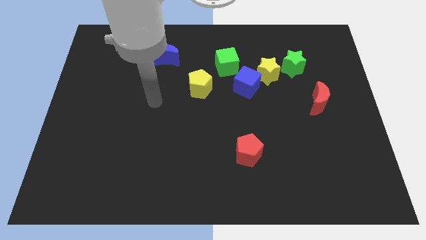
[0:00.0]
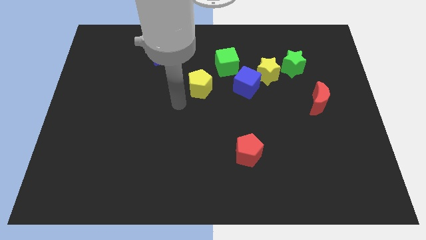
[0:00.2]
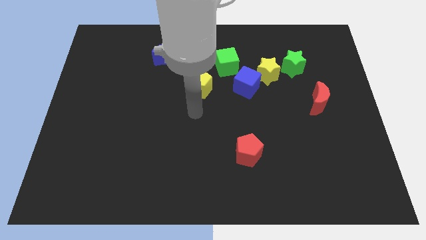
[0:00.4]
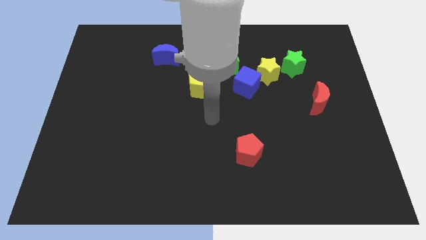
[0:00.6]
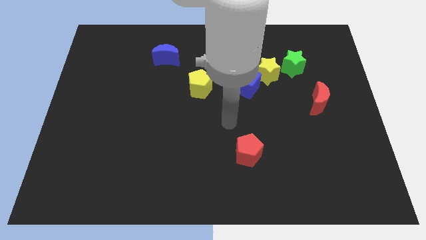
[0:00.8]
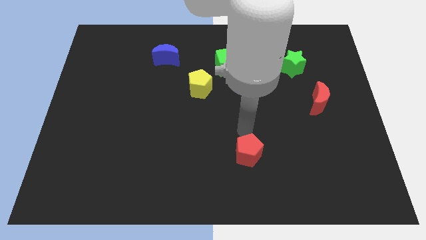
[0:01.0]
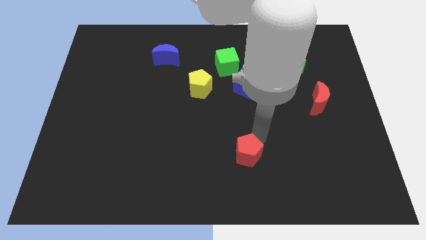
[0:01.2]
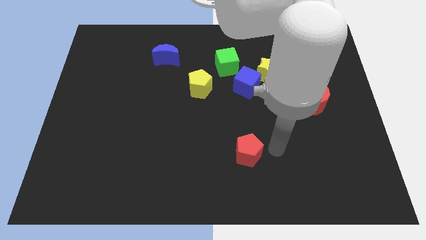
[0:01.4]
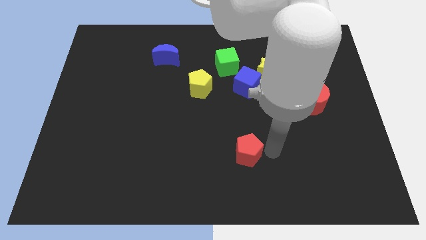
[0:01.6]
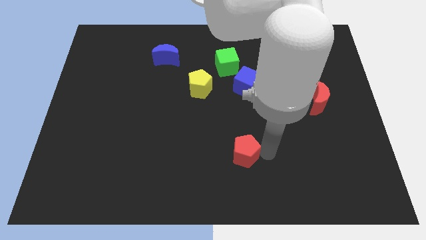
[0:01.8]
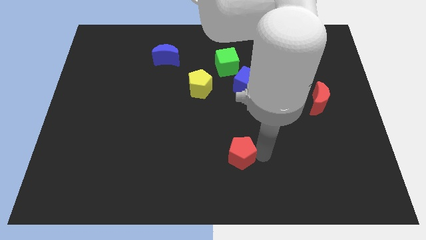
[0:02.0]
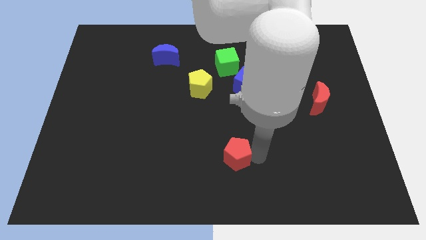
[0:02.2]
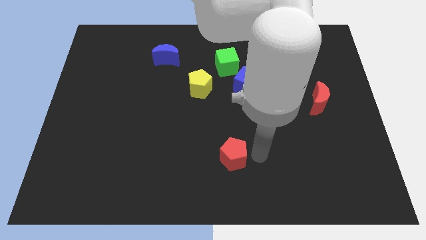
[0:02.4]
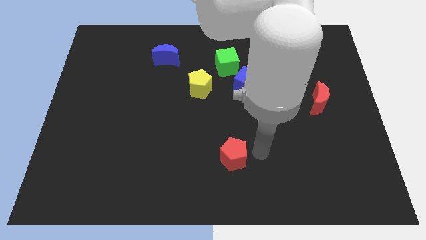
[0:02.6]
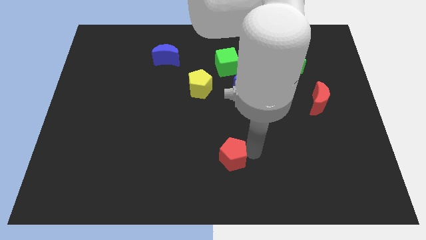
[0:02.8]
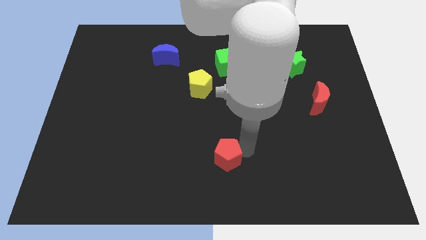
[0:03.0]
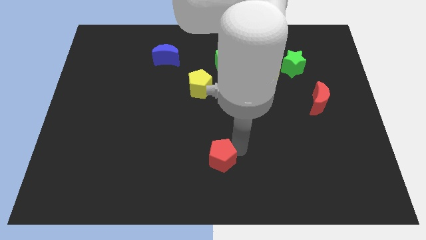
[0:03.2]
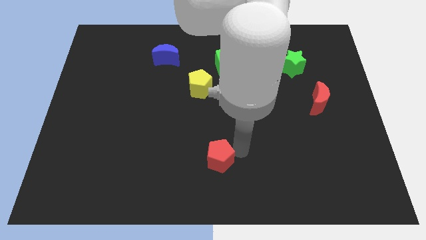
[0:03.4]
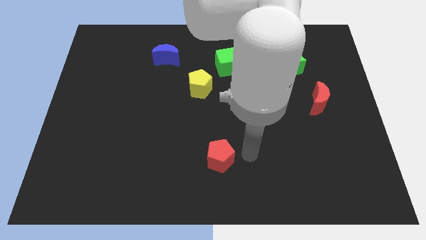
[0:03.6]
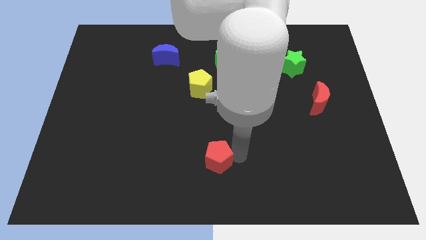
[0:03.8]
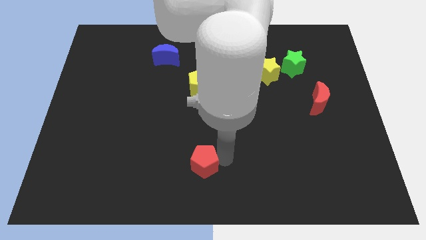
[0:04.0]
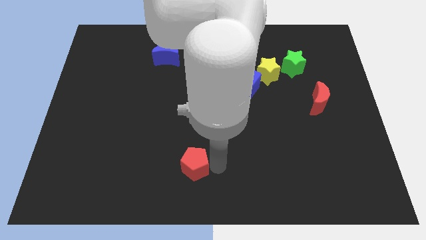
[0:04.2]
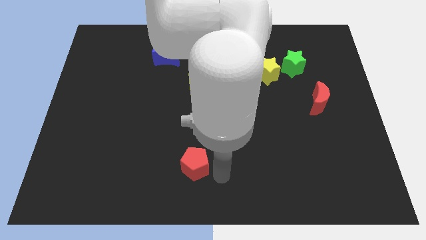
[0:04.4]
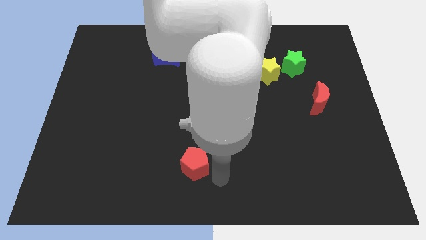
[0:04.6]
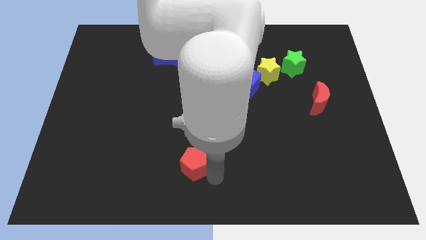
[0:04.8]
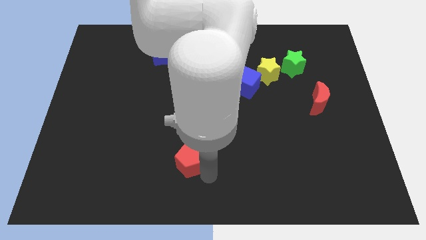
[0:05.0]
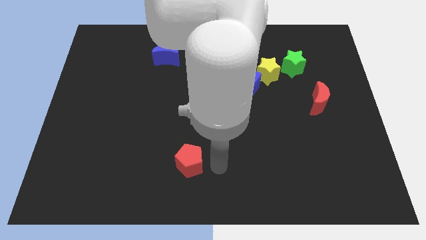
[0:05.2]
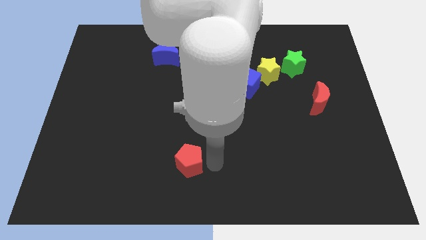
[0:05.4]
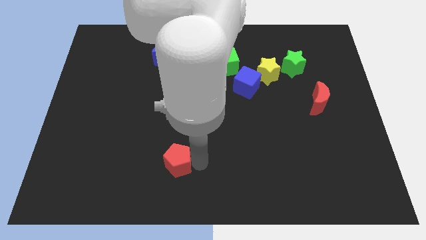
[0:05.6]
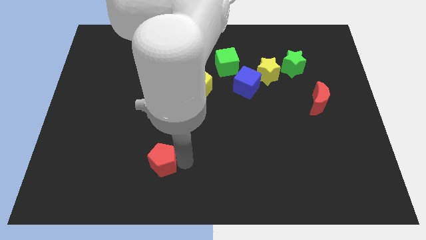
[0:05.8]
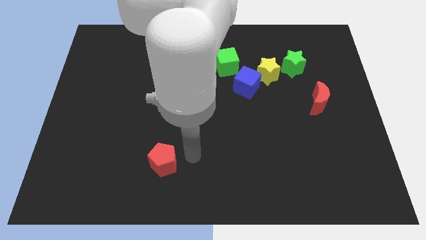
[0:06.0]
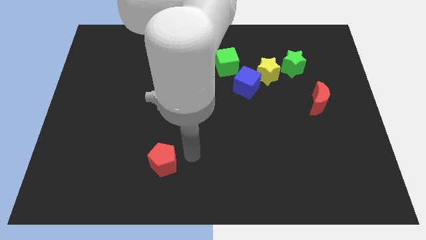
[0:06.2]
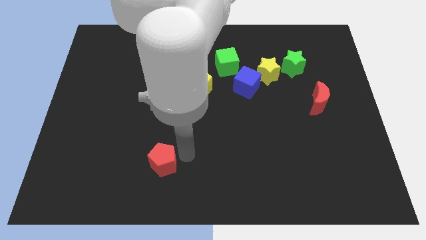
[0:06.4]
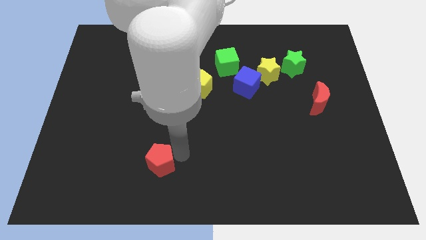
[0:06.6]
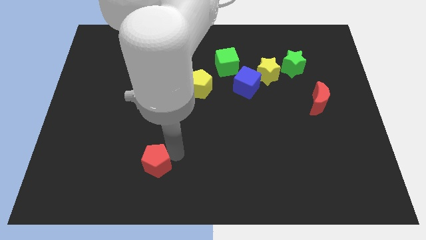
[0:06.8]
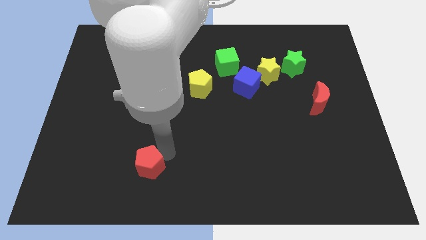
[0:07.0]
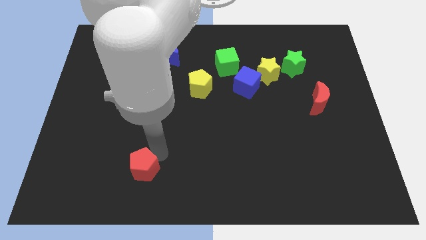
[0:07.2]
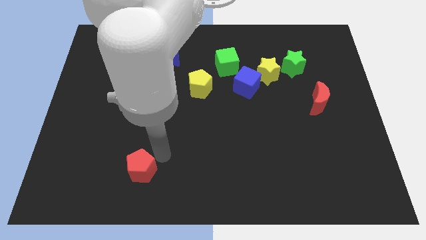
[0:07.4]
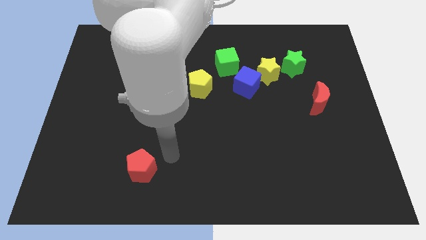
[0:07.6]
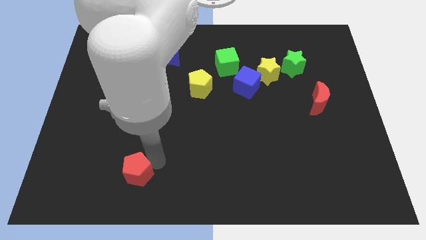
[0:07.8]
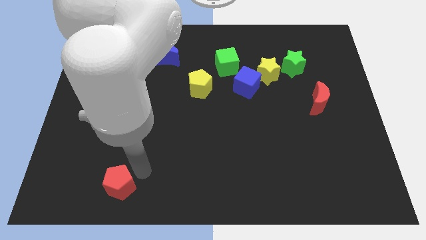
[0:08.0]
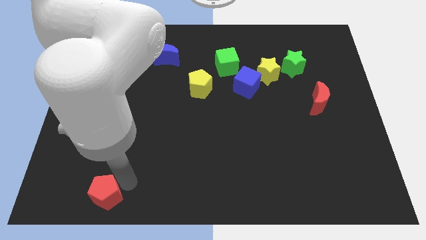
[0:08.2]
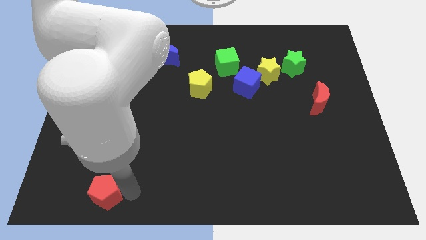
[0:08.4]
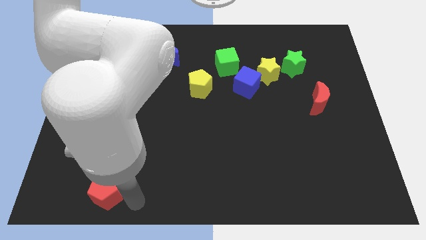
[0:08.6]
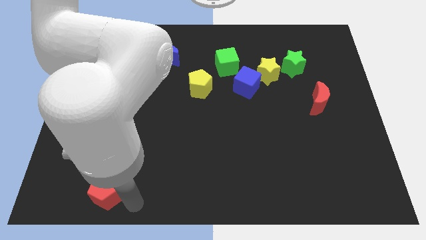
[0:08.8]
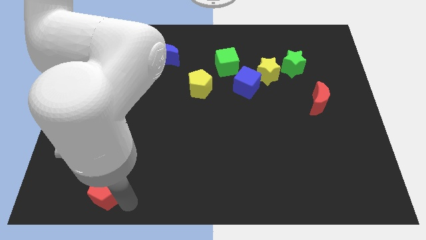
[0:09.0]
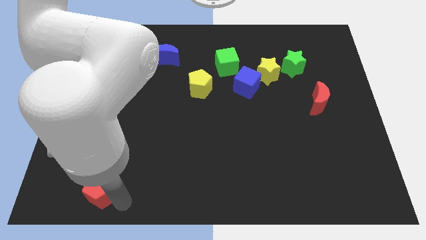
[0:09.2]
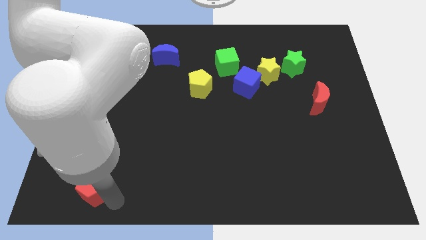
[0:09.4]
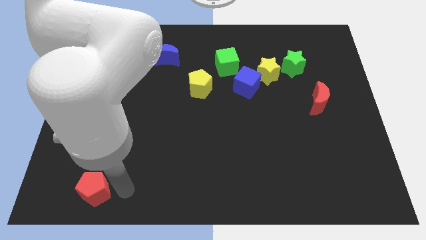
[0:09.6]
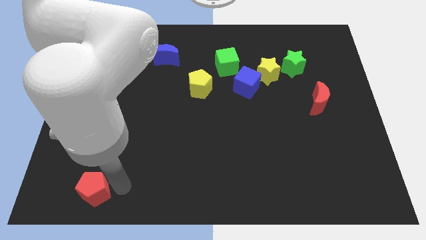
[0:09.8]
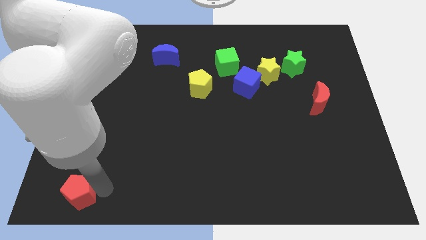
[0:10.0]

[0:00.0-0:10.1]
put the red pentagon to the lower left corner

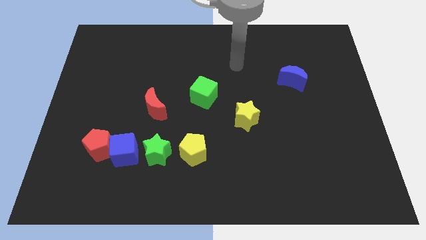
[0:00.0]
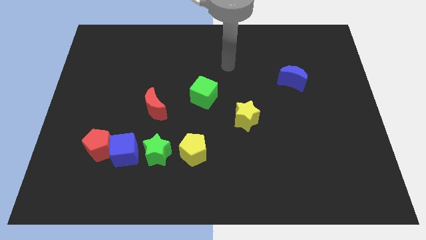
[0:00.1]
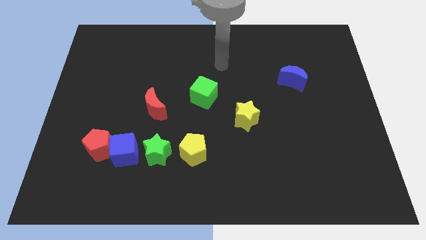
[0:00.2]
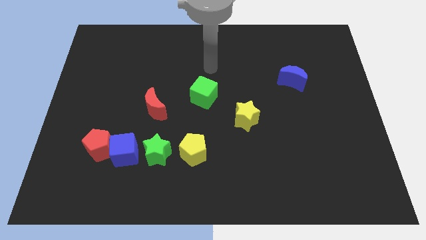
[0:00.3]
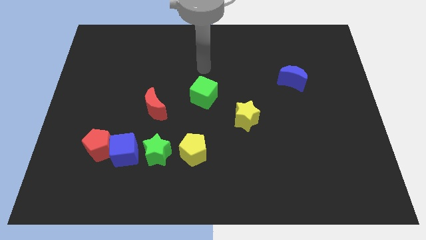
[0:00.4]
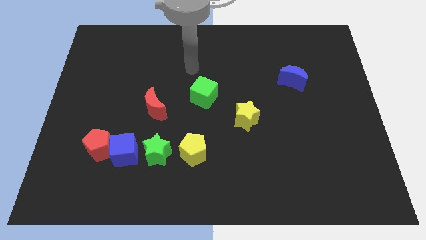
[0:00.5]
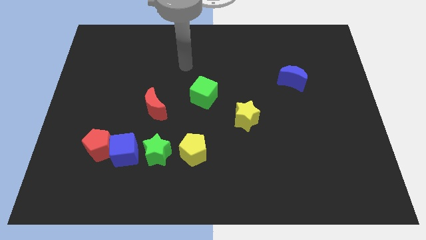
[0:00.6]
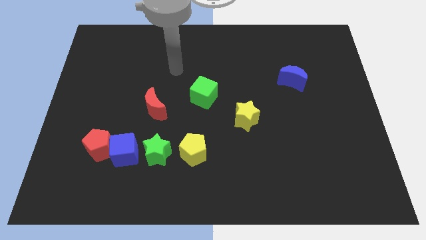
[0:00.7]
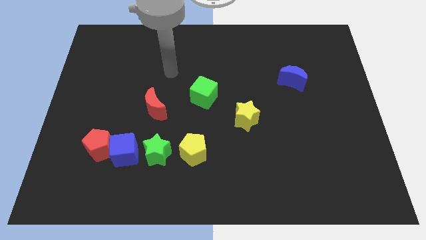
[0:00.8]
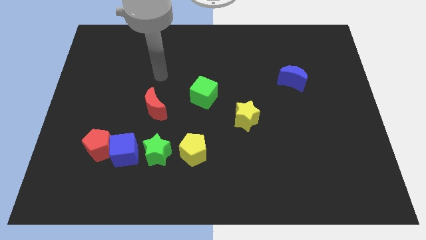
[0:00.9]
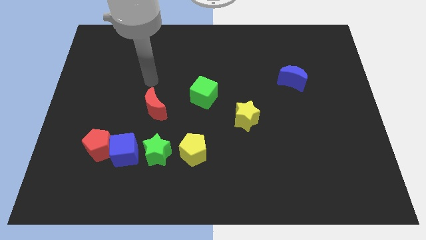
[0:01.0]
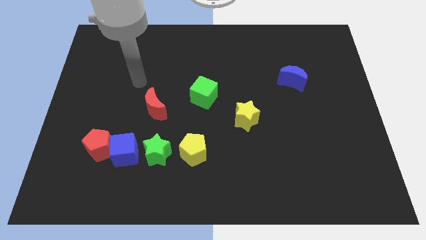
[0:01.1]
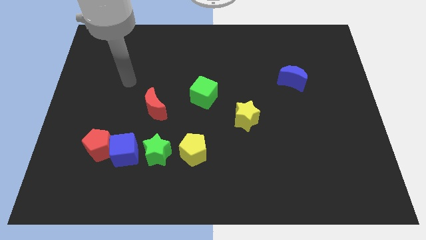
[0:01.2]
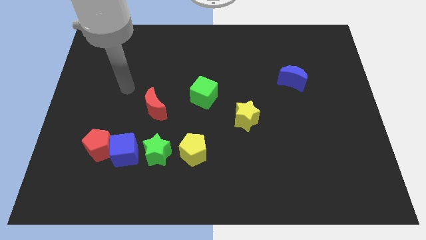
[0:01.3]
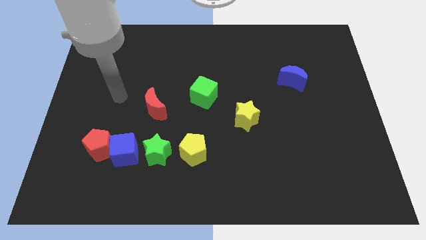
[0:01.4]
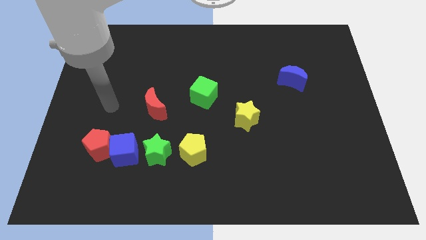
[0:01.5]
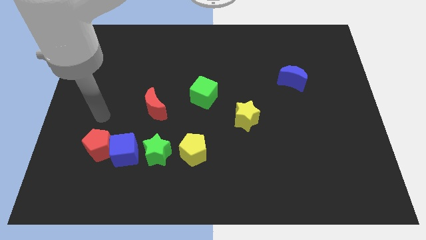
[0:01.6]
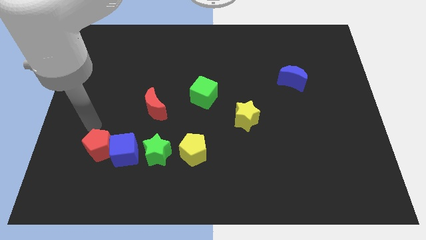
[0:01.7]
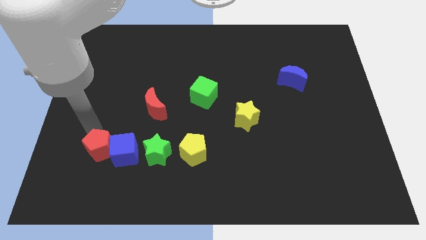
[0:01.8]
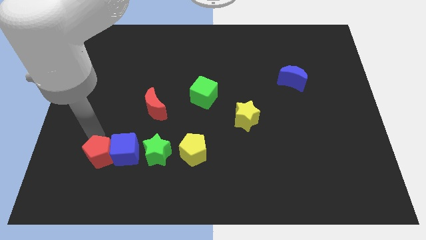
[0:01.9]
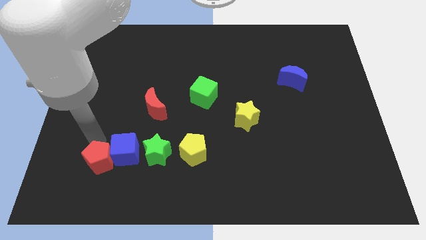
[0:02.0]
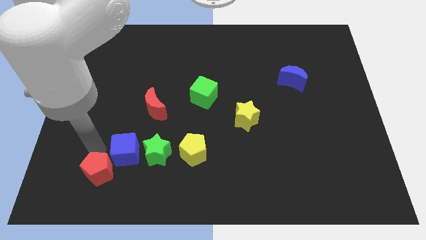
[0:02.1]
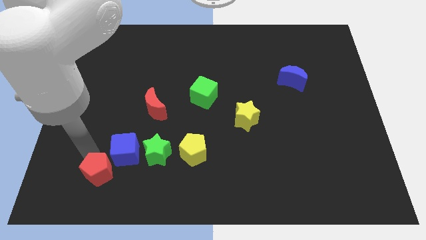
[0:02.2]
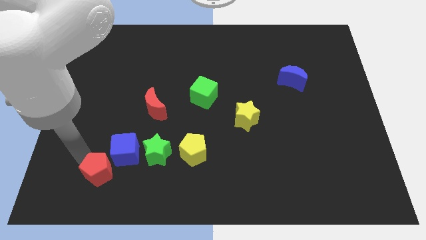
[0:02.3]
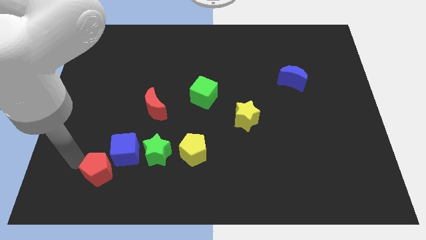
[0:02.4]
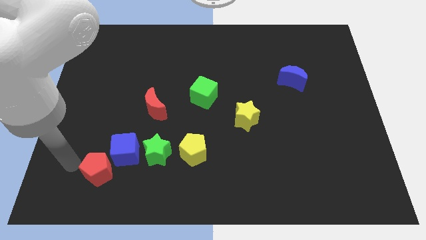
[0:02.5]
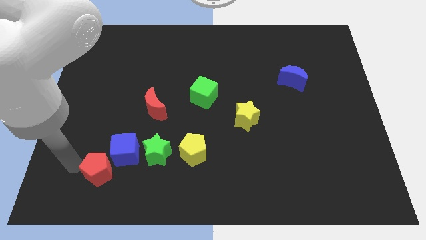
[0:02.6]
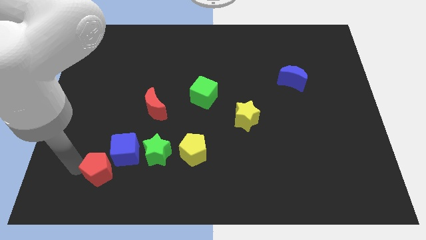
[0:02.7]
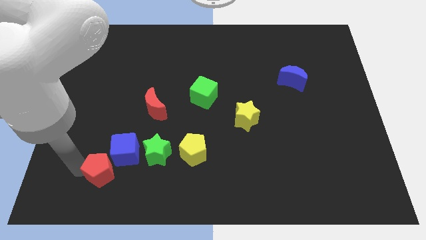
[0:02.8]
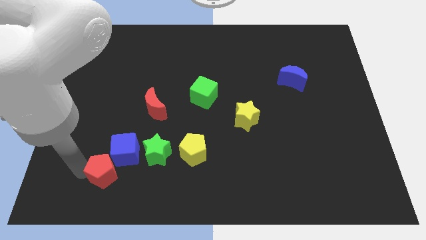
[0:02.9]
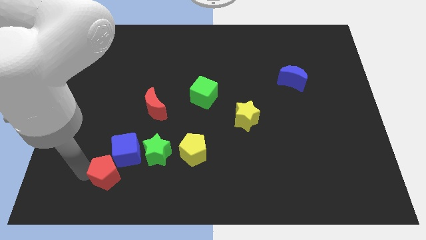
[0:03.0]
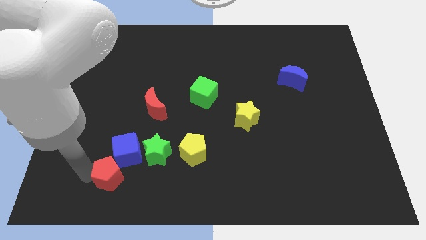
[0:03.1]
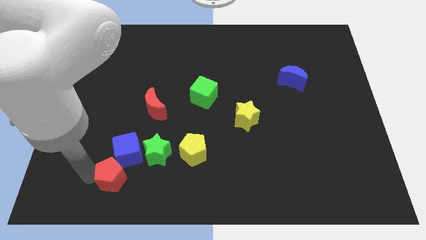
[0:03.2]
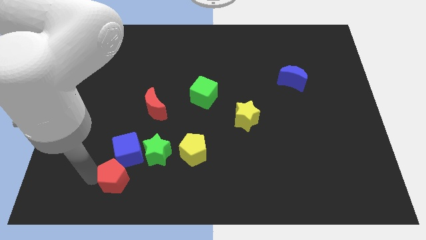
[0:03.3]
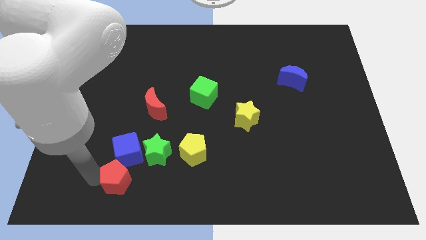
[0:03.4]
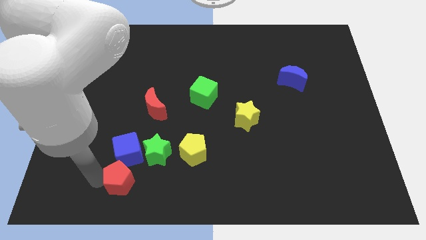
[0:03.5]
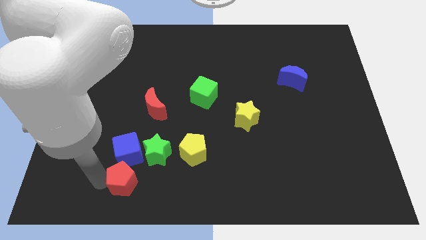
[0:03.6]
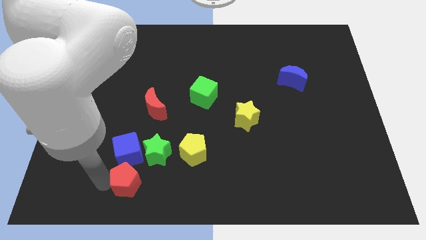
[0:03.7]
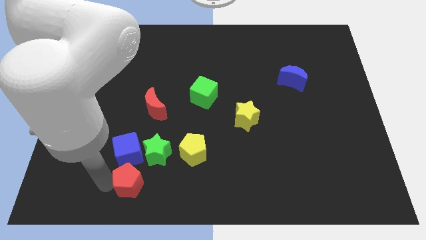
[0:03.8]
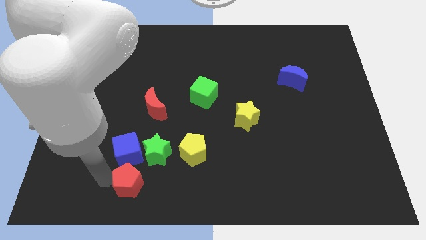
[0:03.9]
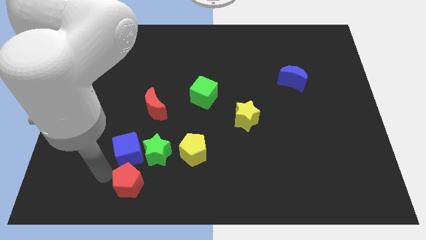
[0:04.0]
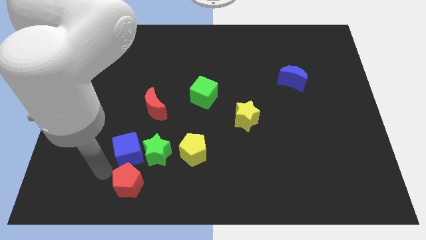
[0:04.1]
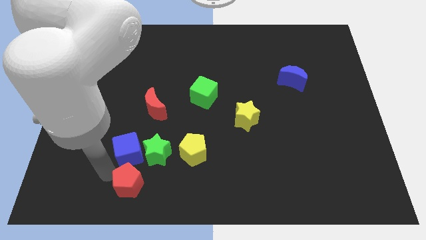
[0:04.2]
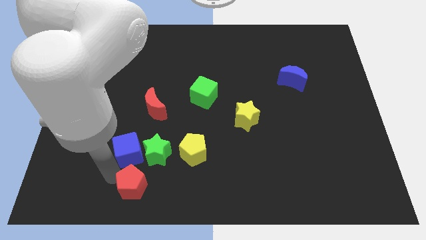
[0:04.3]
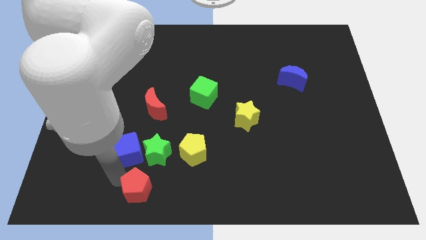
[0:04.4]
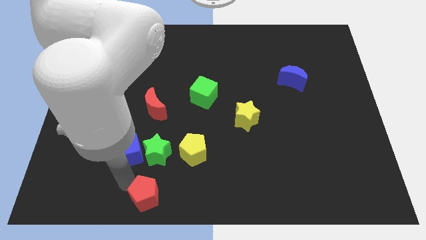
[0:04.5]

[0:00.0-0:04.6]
slide the red pentagon to the bottom side
